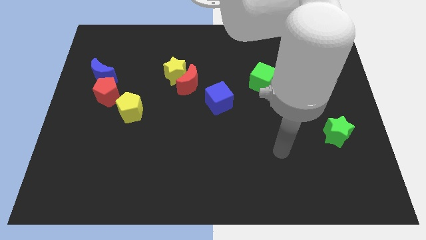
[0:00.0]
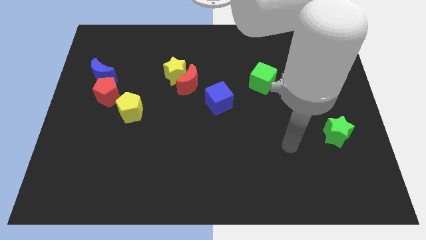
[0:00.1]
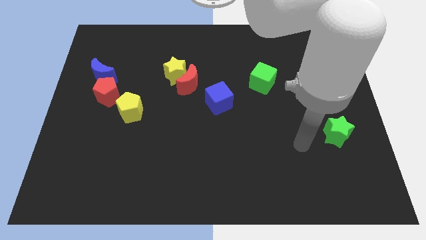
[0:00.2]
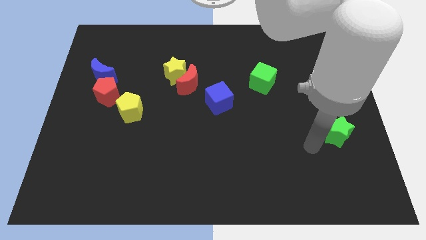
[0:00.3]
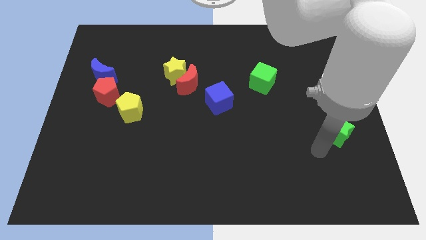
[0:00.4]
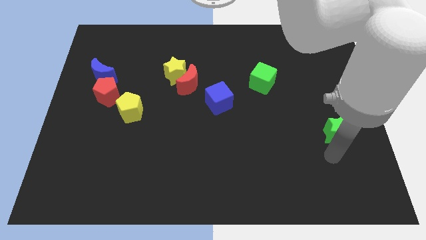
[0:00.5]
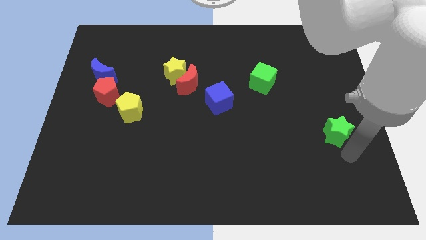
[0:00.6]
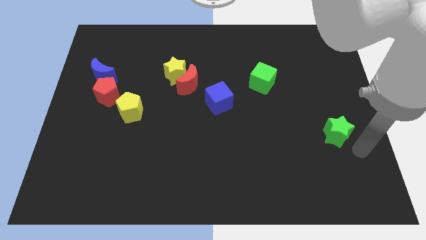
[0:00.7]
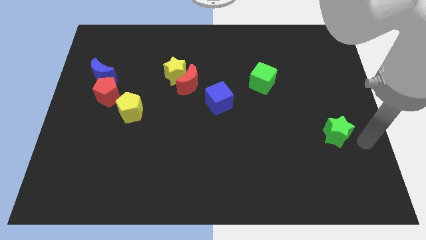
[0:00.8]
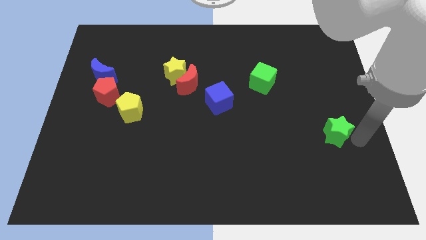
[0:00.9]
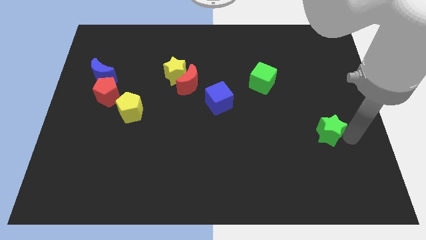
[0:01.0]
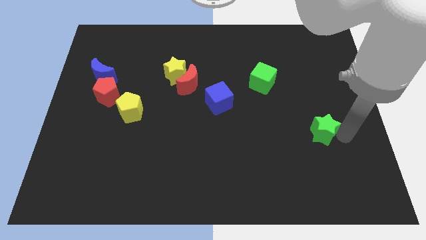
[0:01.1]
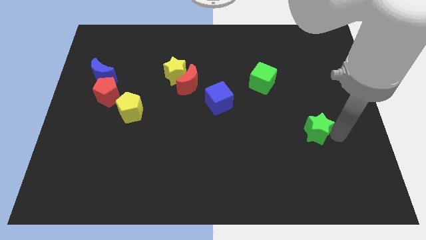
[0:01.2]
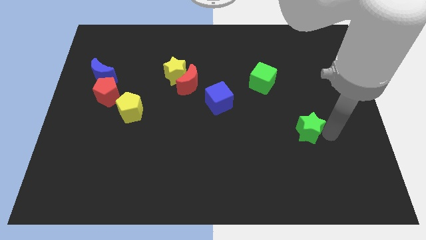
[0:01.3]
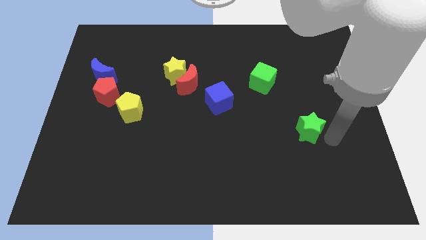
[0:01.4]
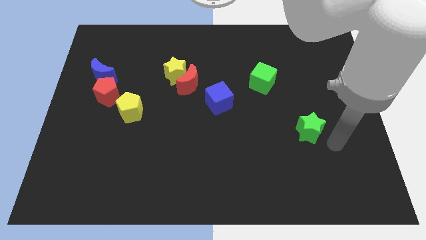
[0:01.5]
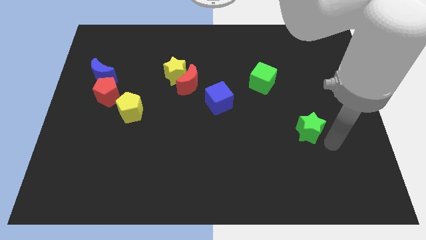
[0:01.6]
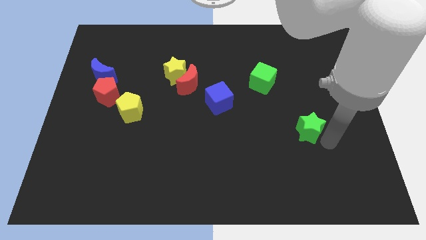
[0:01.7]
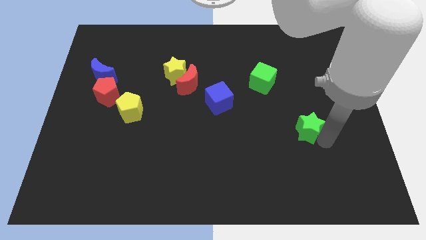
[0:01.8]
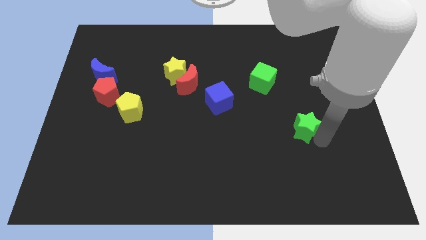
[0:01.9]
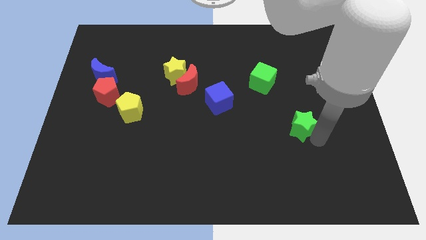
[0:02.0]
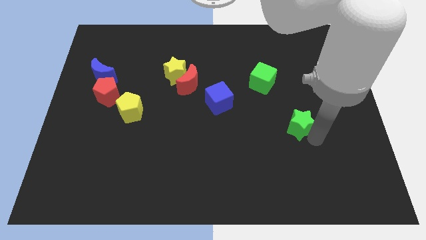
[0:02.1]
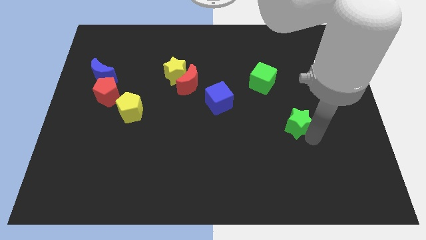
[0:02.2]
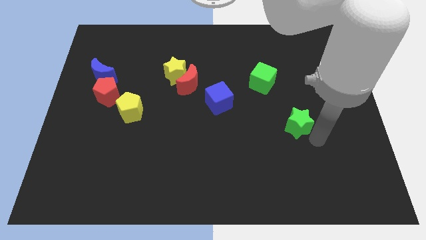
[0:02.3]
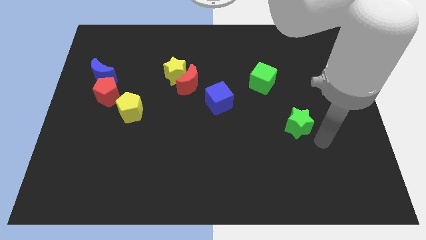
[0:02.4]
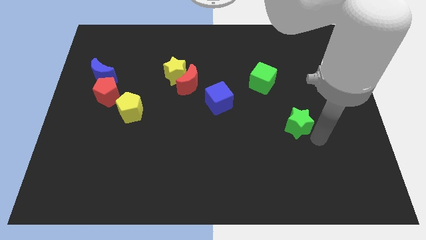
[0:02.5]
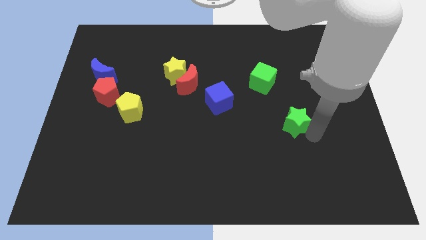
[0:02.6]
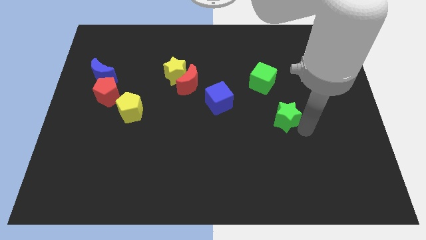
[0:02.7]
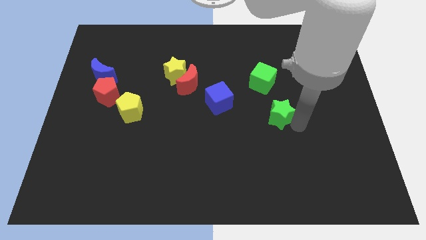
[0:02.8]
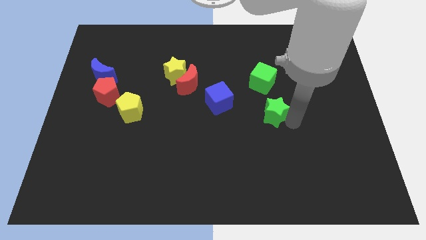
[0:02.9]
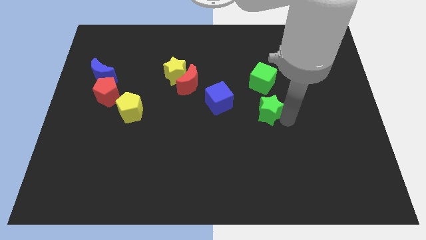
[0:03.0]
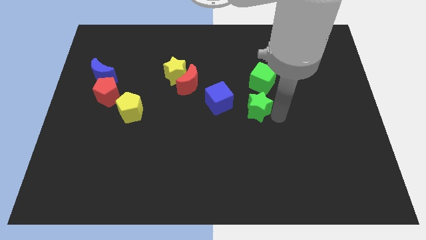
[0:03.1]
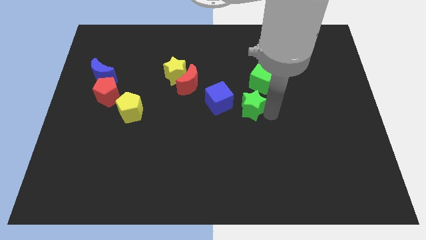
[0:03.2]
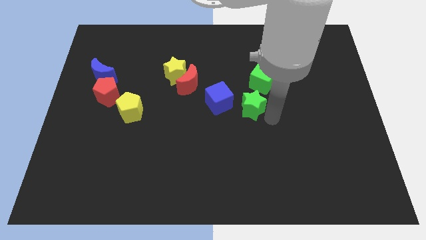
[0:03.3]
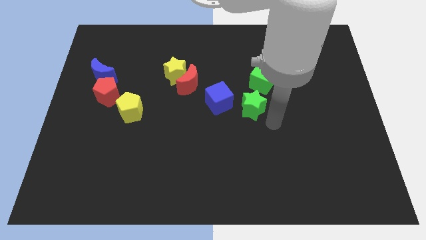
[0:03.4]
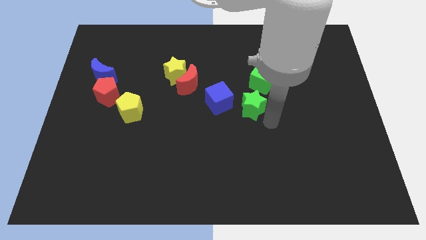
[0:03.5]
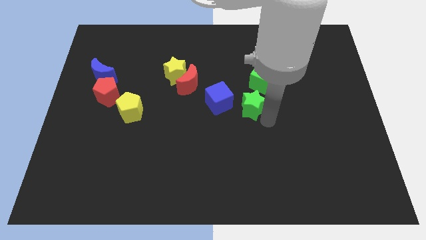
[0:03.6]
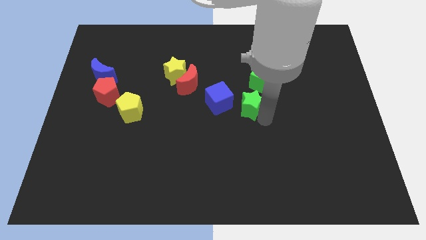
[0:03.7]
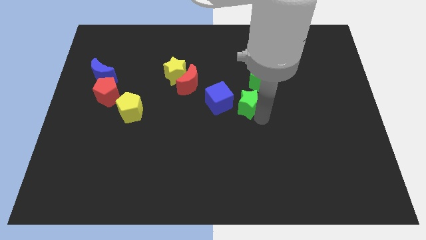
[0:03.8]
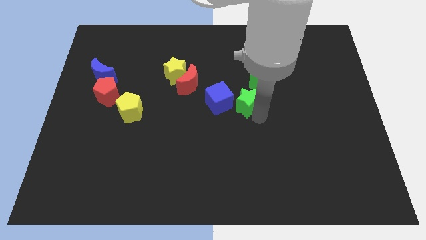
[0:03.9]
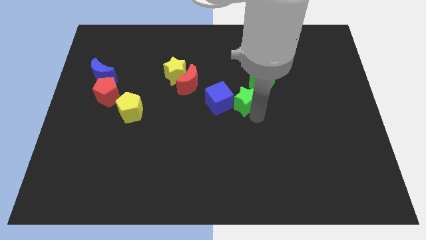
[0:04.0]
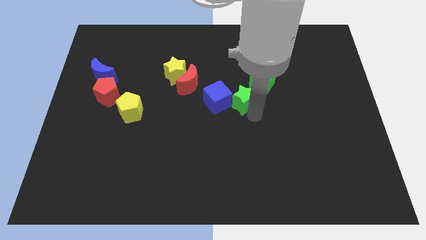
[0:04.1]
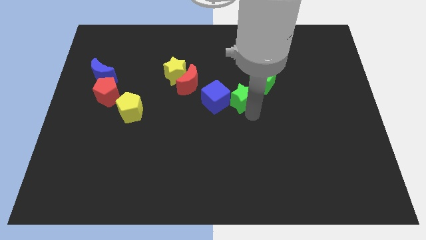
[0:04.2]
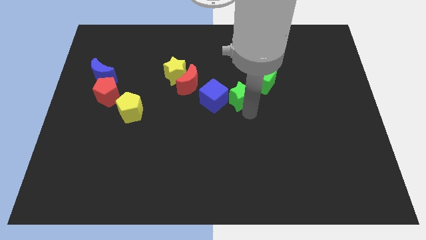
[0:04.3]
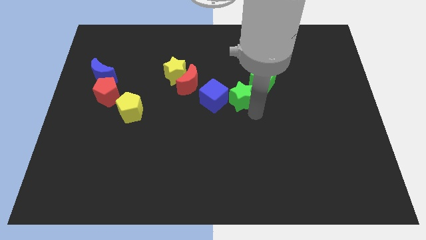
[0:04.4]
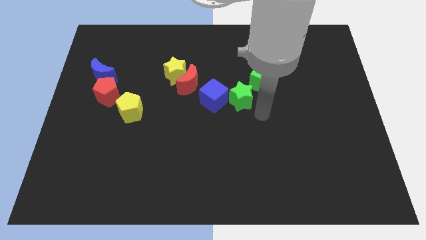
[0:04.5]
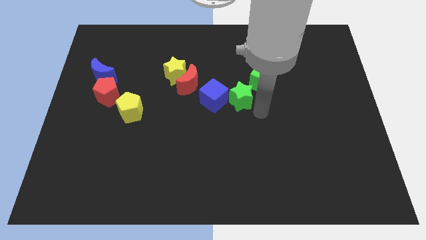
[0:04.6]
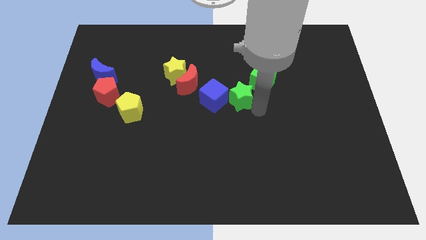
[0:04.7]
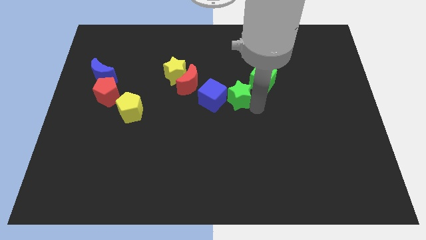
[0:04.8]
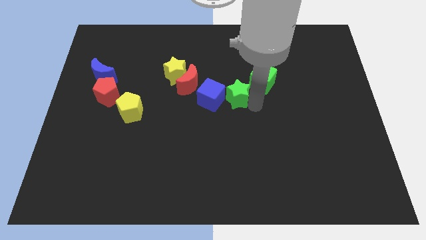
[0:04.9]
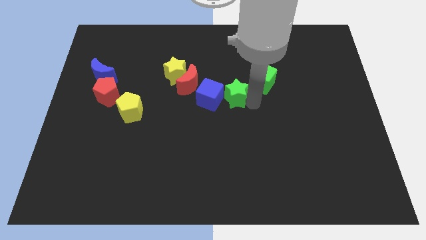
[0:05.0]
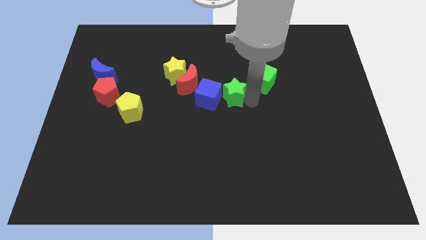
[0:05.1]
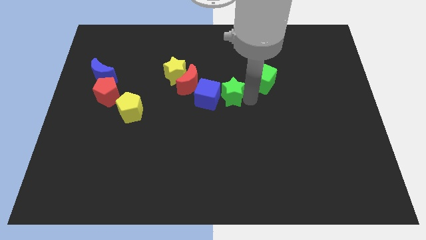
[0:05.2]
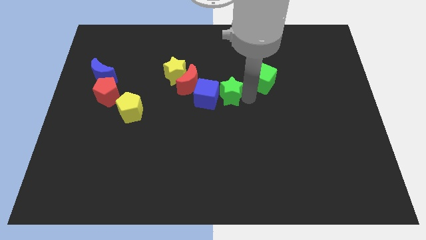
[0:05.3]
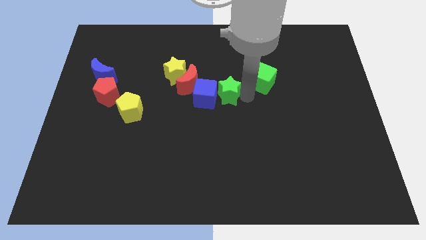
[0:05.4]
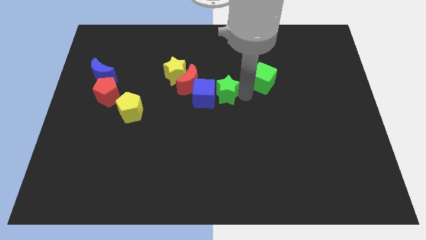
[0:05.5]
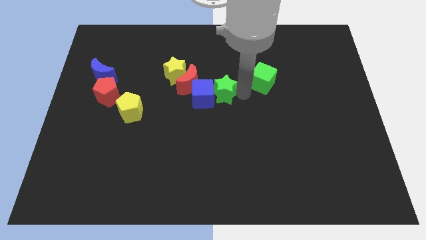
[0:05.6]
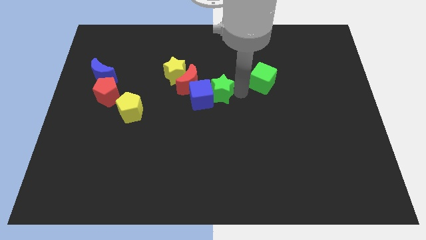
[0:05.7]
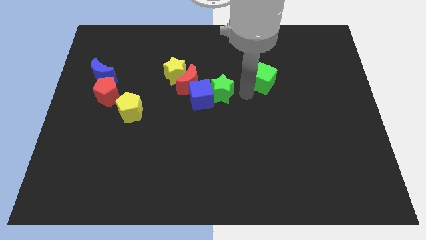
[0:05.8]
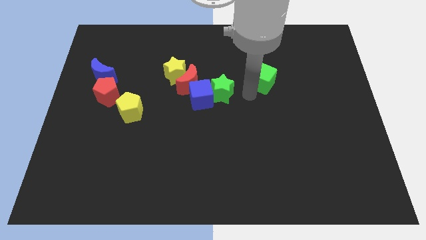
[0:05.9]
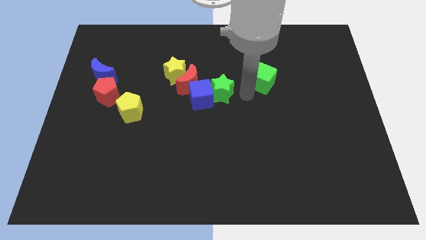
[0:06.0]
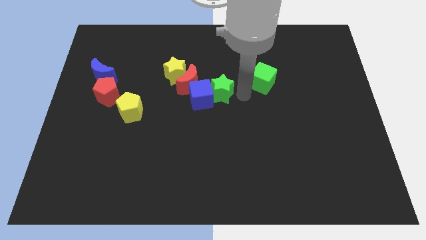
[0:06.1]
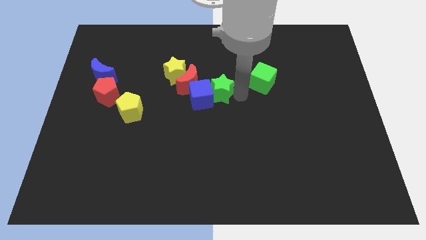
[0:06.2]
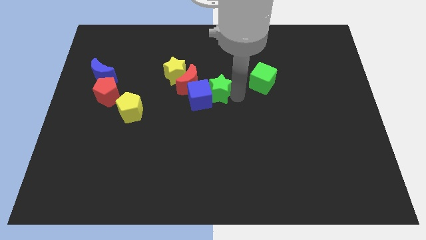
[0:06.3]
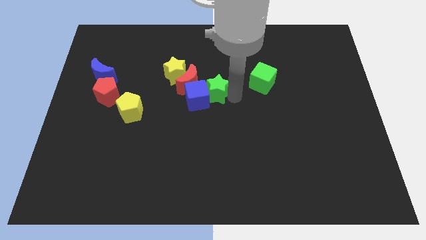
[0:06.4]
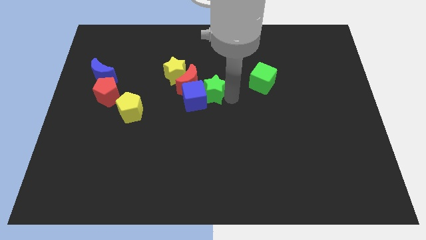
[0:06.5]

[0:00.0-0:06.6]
push the green star diagonally down and to the right of the yellow star

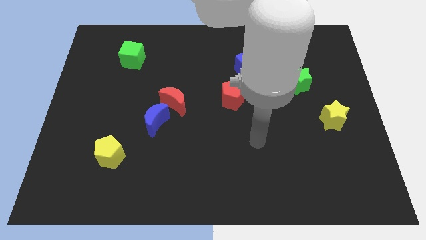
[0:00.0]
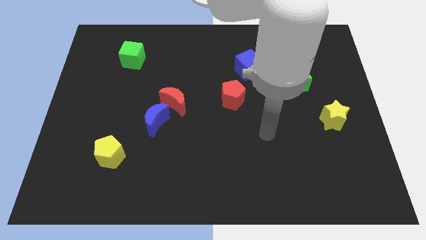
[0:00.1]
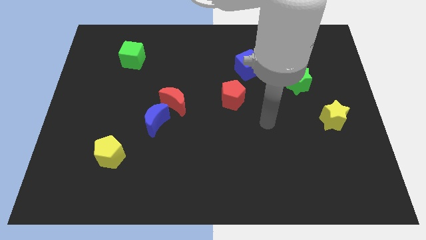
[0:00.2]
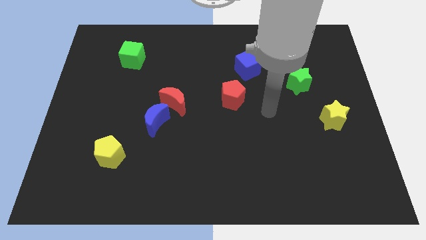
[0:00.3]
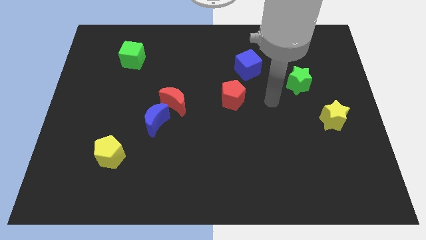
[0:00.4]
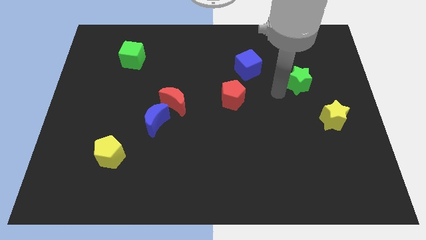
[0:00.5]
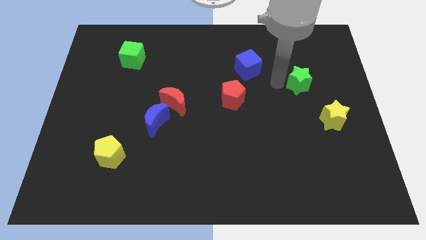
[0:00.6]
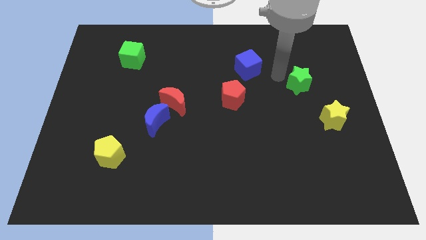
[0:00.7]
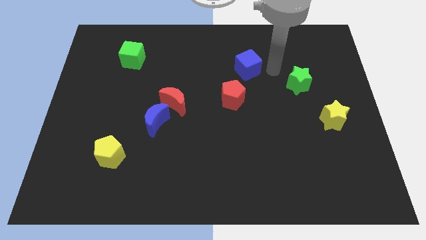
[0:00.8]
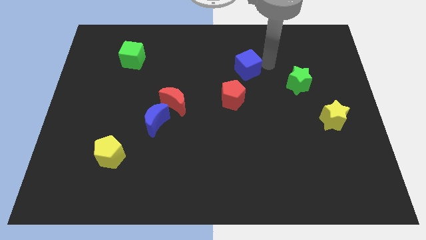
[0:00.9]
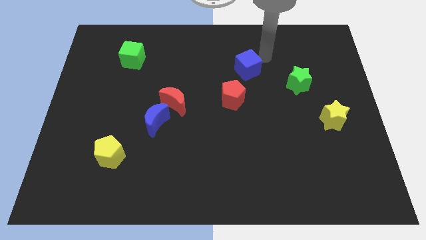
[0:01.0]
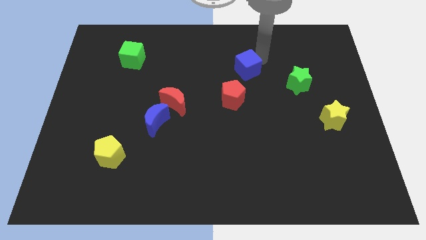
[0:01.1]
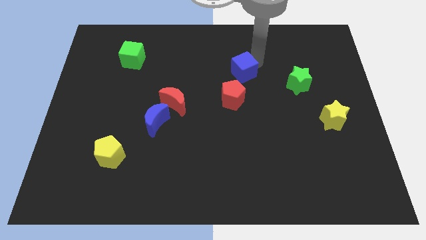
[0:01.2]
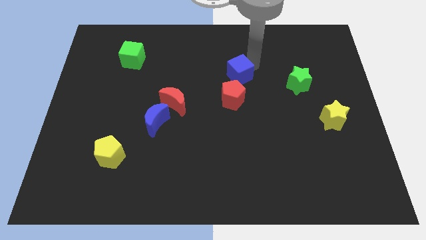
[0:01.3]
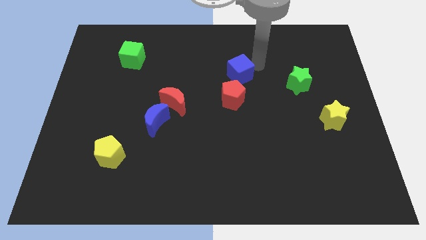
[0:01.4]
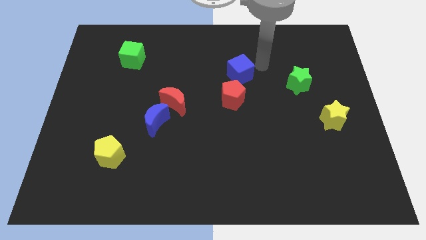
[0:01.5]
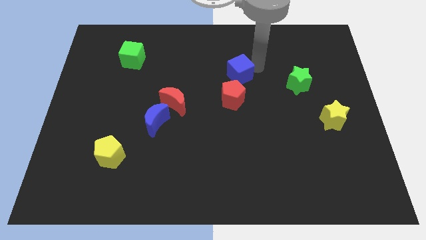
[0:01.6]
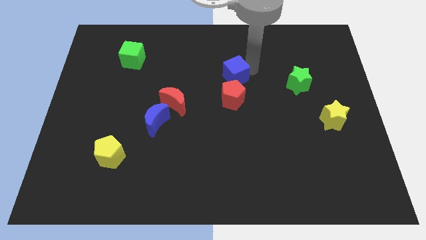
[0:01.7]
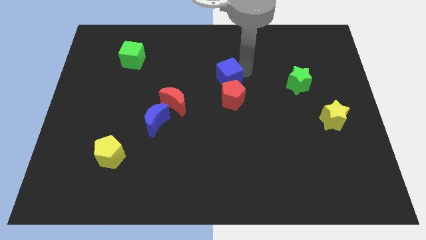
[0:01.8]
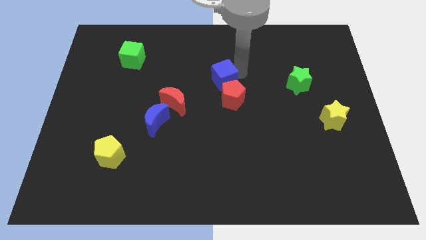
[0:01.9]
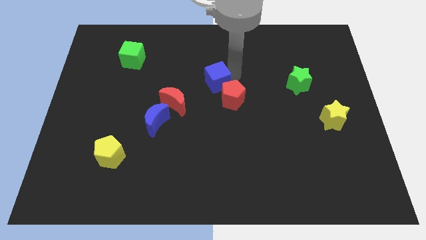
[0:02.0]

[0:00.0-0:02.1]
slide the blue cube to the top right side of the red moon
